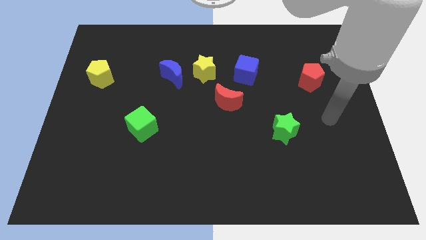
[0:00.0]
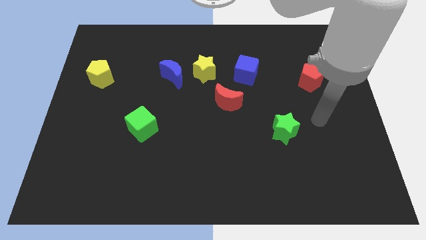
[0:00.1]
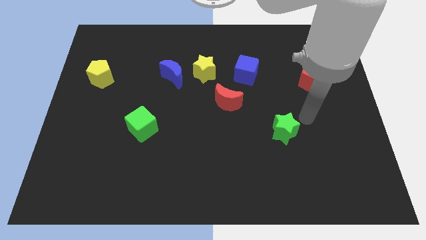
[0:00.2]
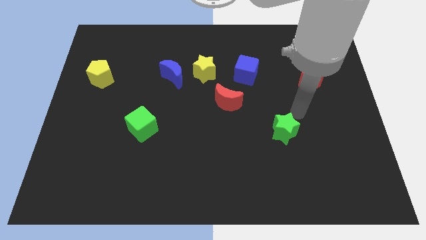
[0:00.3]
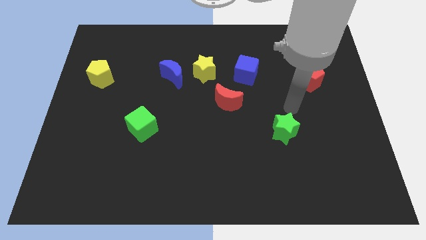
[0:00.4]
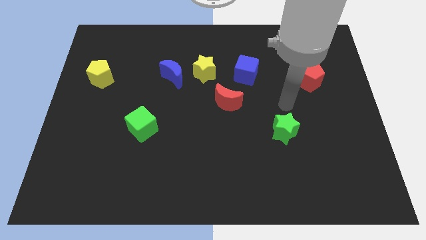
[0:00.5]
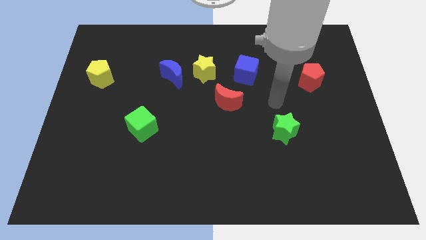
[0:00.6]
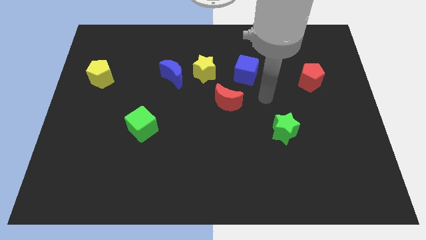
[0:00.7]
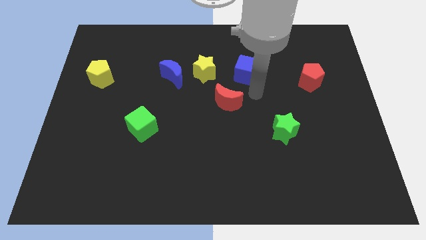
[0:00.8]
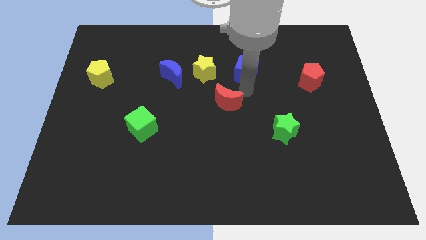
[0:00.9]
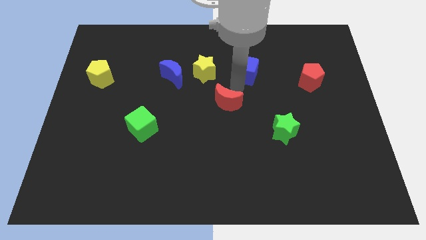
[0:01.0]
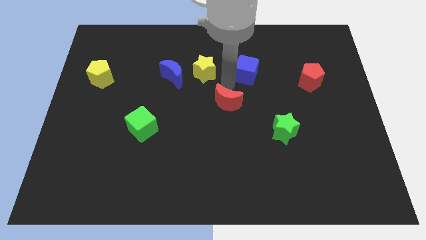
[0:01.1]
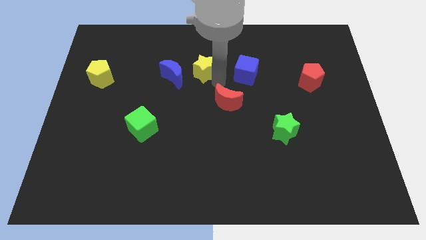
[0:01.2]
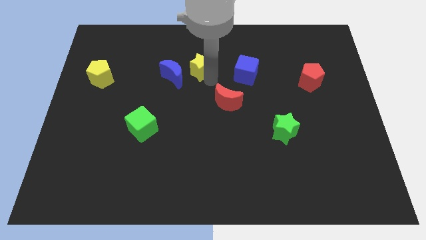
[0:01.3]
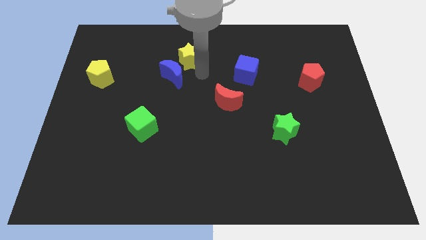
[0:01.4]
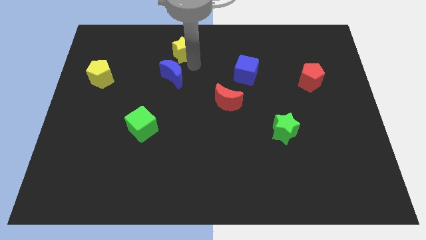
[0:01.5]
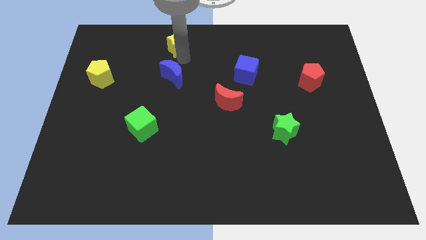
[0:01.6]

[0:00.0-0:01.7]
separate the blue moon from the yellow star

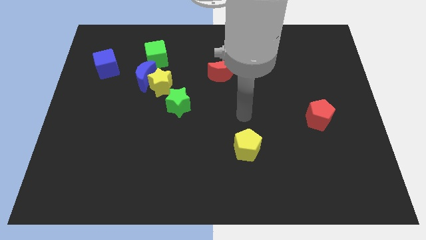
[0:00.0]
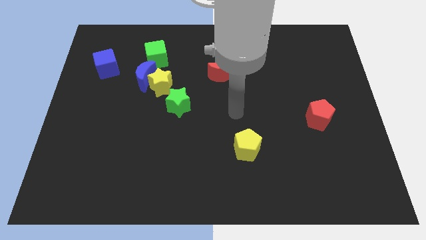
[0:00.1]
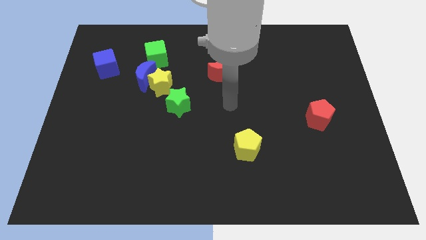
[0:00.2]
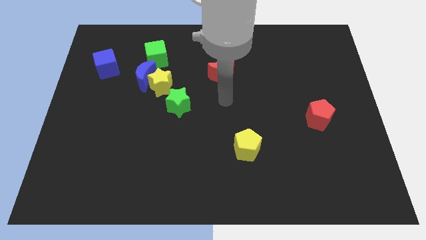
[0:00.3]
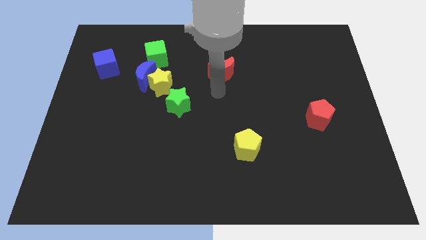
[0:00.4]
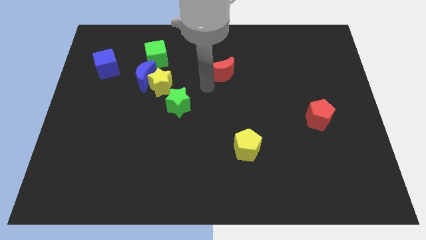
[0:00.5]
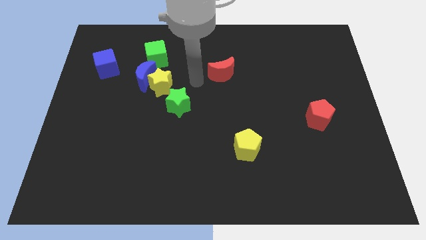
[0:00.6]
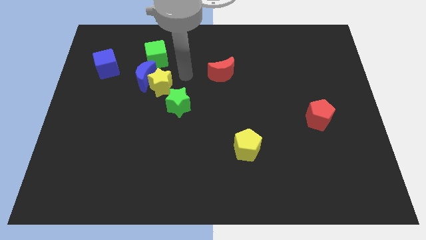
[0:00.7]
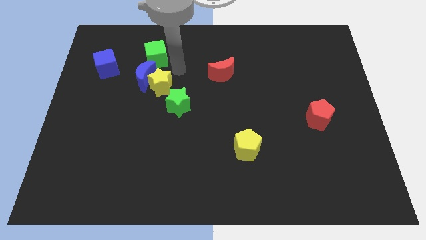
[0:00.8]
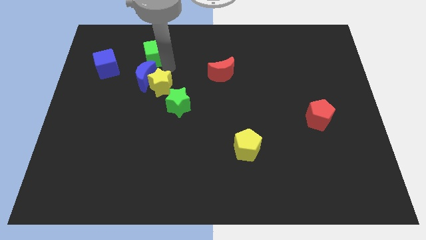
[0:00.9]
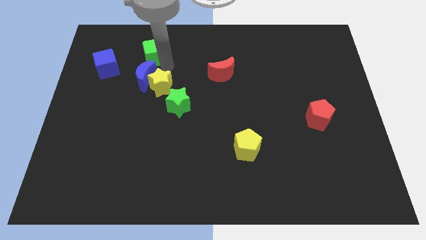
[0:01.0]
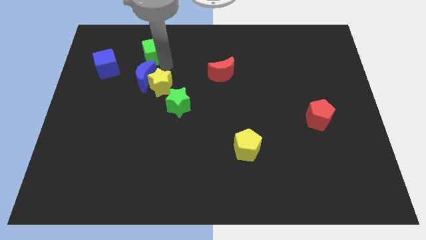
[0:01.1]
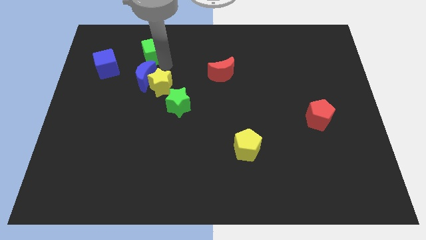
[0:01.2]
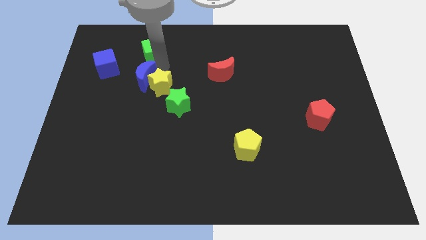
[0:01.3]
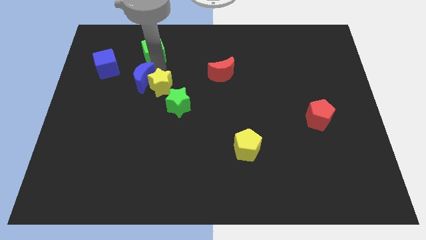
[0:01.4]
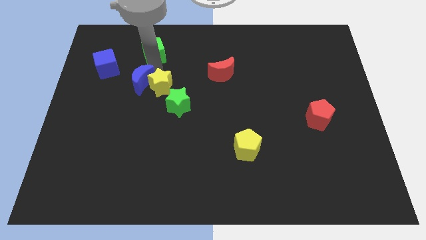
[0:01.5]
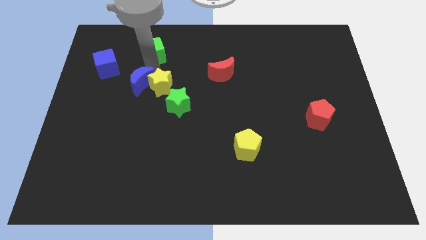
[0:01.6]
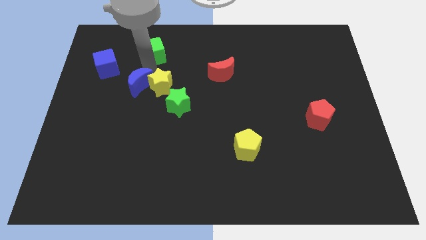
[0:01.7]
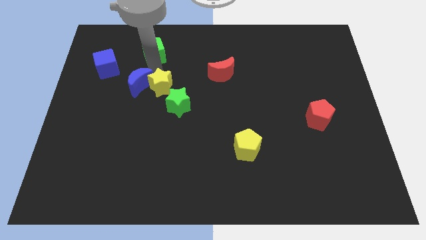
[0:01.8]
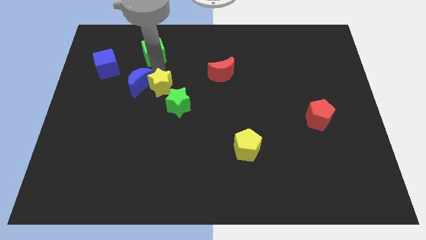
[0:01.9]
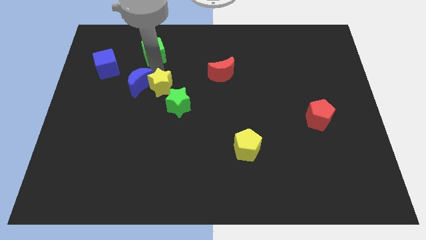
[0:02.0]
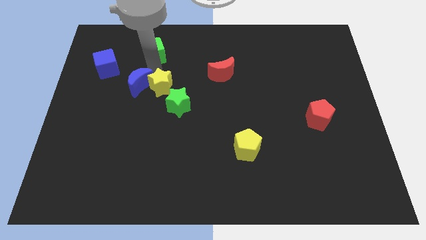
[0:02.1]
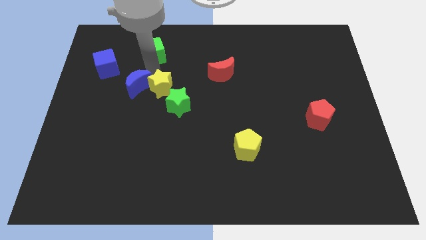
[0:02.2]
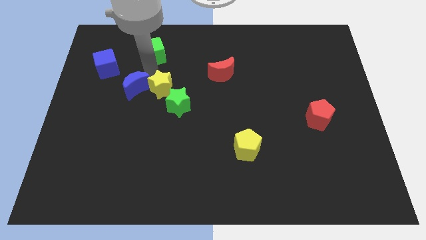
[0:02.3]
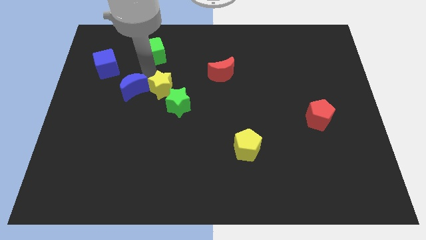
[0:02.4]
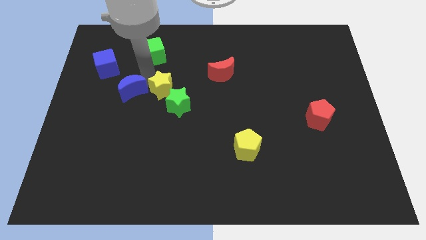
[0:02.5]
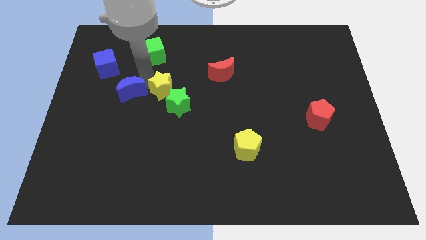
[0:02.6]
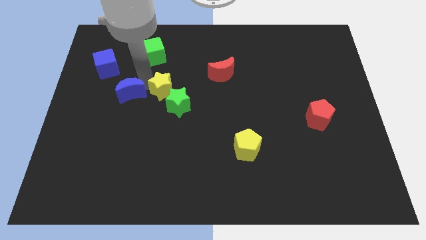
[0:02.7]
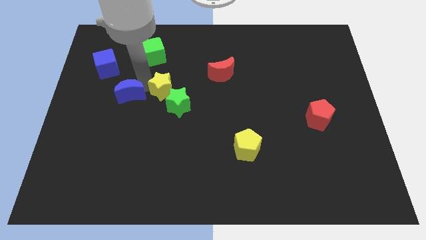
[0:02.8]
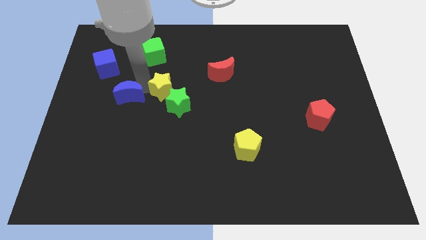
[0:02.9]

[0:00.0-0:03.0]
separate the blue moon from the yellow star and green cube

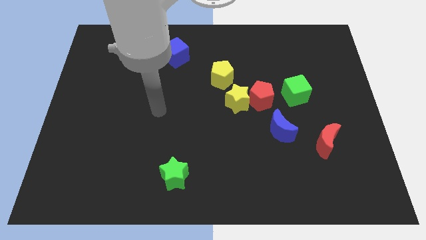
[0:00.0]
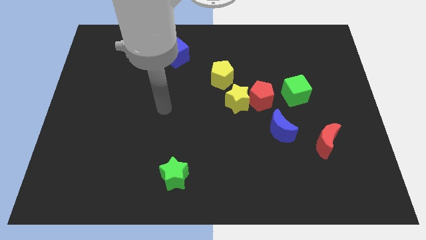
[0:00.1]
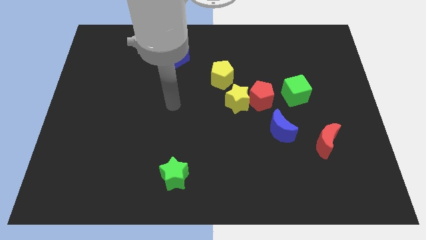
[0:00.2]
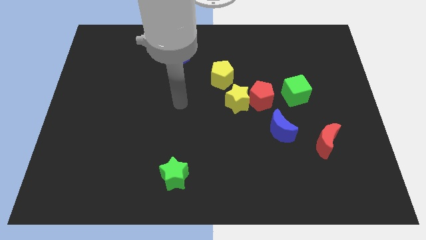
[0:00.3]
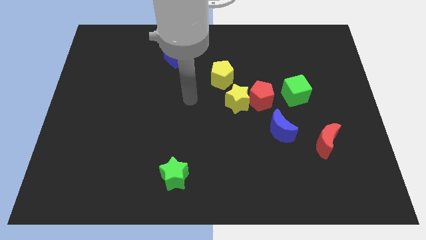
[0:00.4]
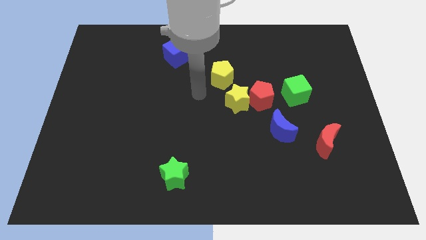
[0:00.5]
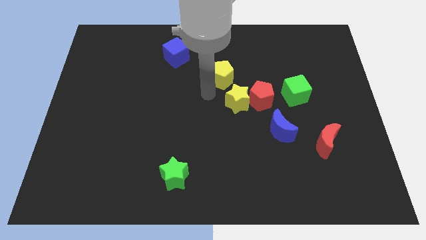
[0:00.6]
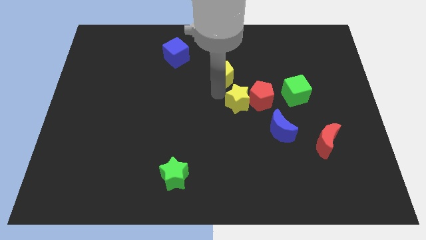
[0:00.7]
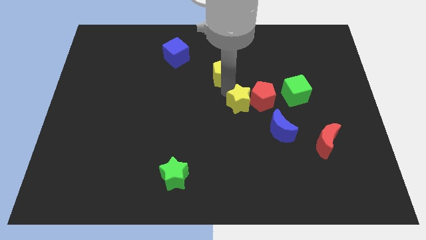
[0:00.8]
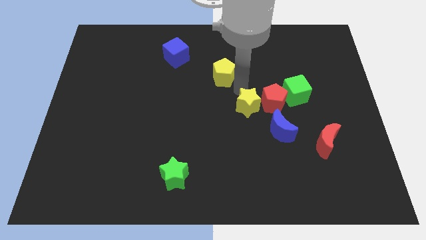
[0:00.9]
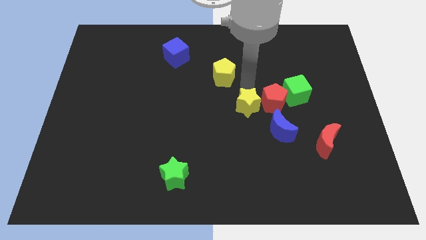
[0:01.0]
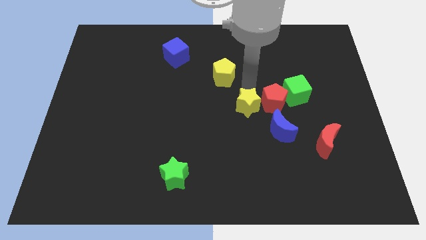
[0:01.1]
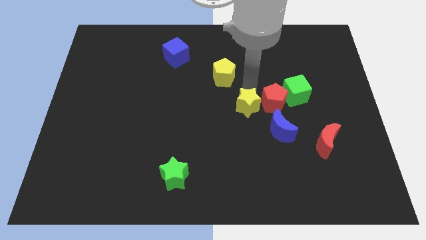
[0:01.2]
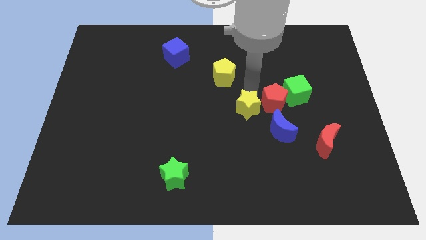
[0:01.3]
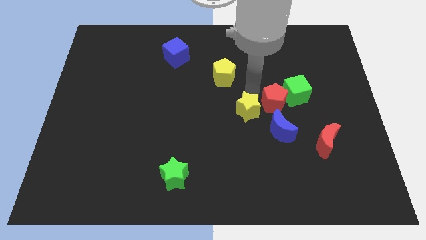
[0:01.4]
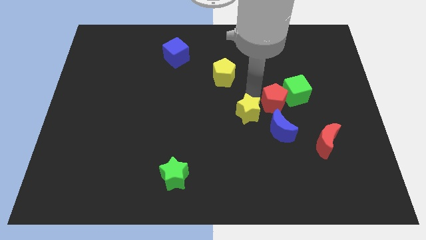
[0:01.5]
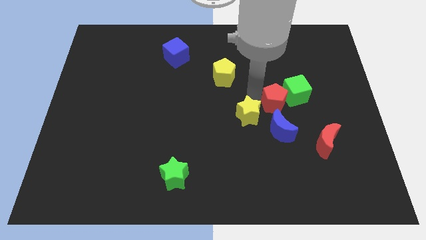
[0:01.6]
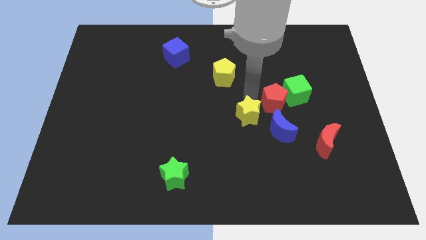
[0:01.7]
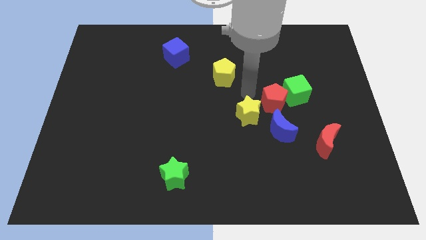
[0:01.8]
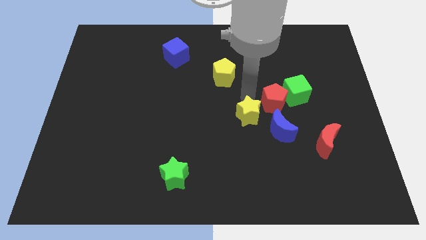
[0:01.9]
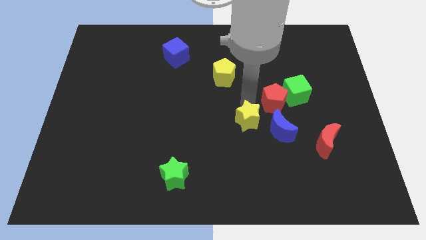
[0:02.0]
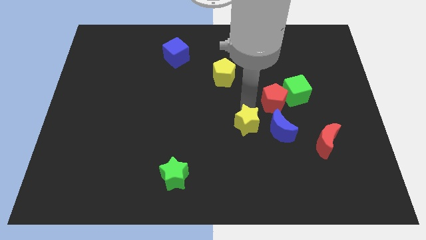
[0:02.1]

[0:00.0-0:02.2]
move the yellow star away from the red pentagon and yellow pentagon

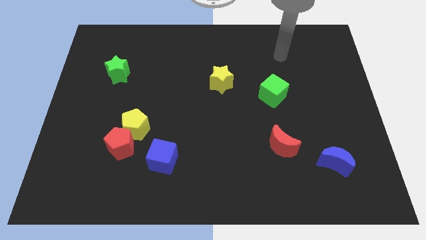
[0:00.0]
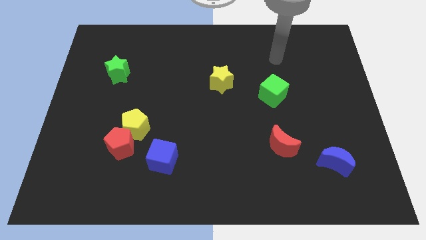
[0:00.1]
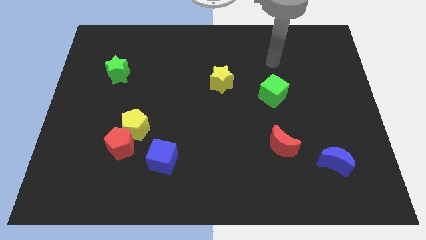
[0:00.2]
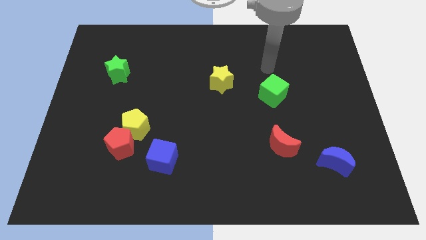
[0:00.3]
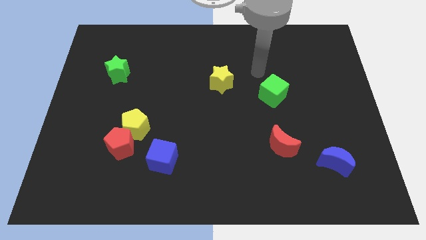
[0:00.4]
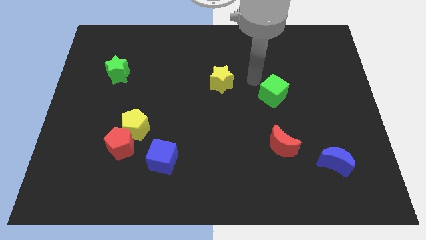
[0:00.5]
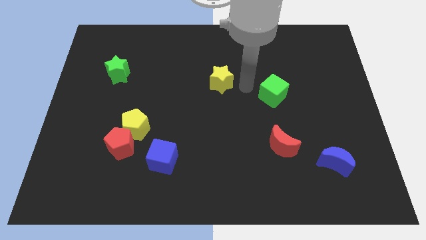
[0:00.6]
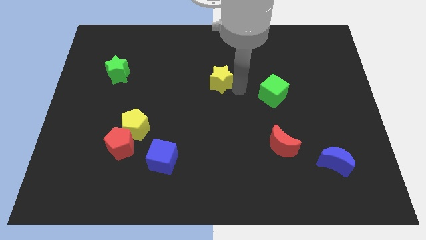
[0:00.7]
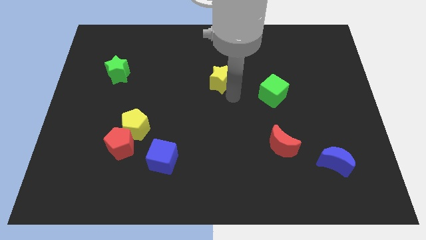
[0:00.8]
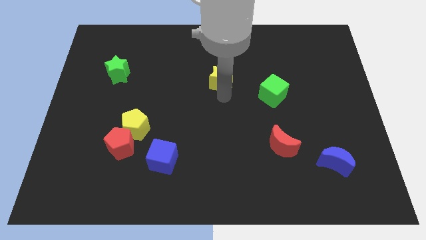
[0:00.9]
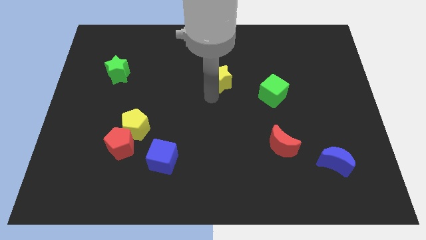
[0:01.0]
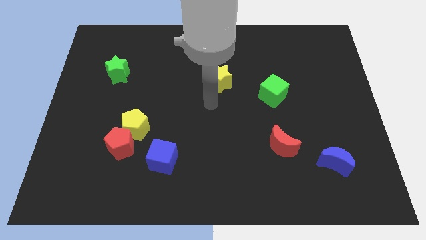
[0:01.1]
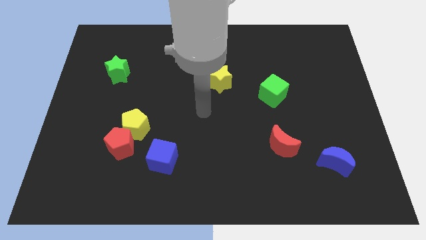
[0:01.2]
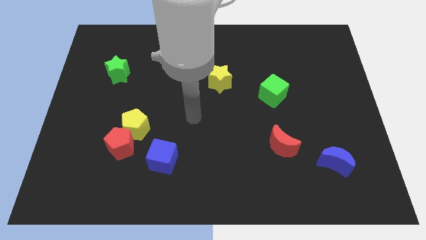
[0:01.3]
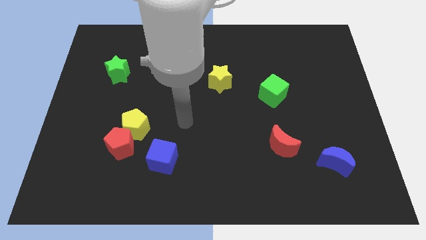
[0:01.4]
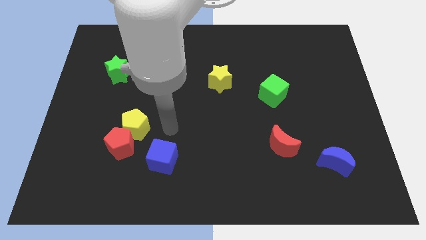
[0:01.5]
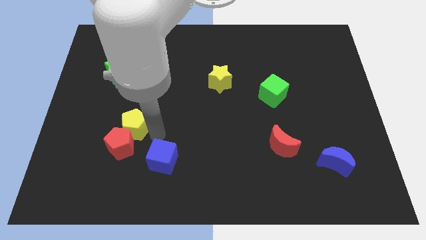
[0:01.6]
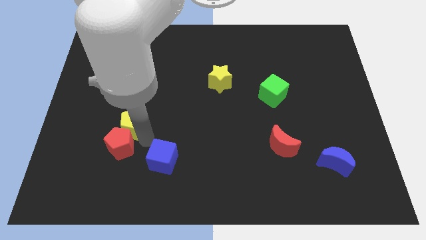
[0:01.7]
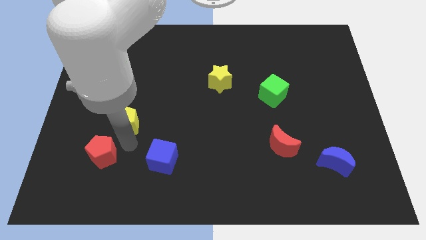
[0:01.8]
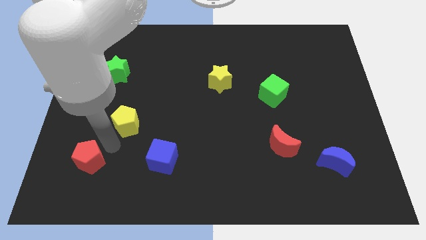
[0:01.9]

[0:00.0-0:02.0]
separate the yellow pentagon from the red pentagon

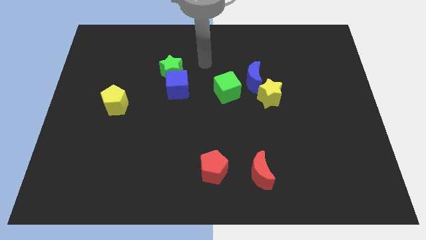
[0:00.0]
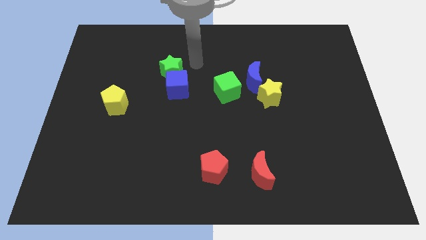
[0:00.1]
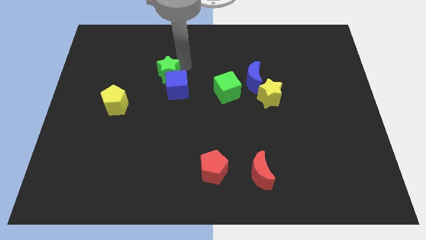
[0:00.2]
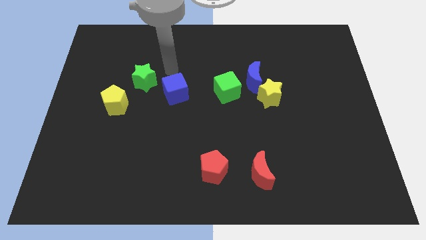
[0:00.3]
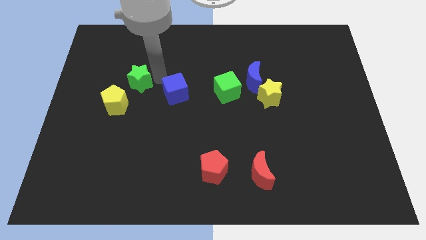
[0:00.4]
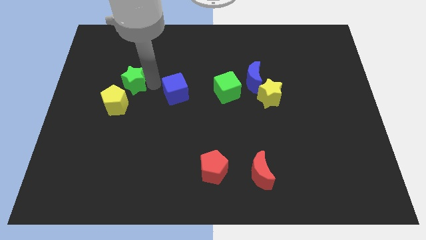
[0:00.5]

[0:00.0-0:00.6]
pull the blue cube apart from the green star
